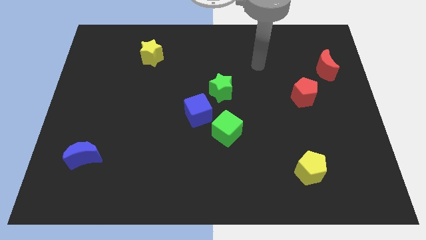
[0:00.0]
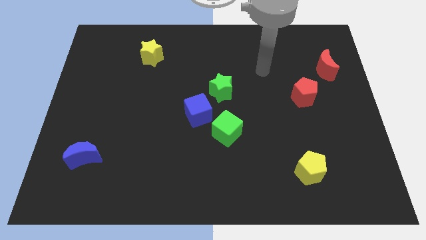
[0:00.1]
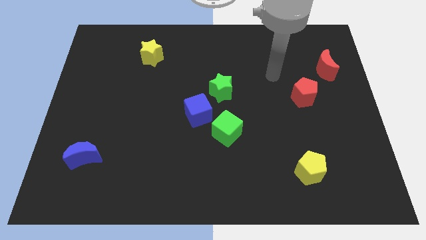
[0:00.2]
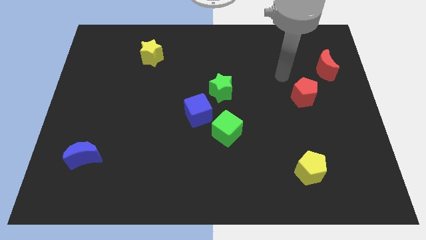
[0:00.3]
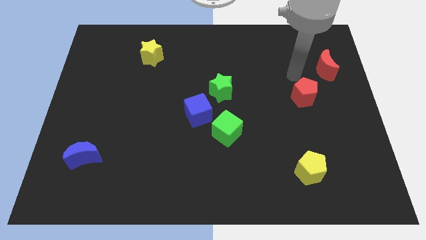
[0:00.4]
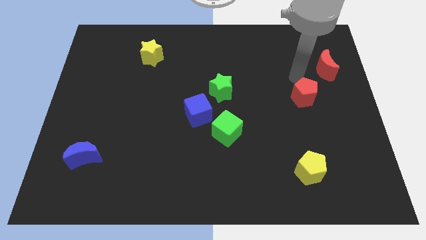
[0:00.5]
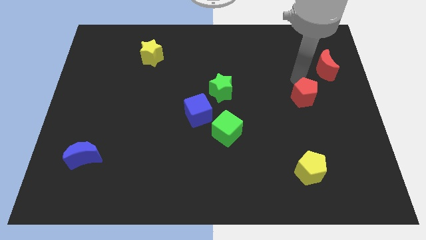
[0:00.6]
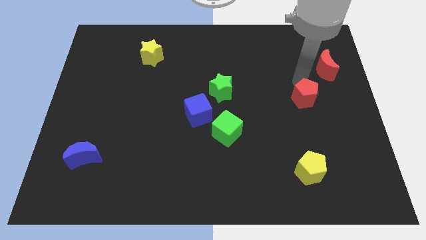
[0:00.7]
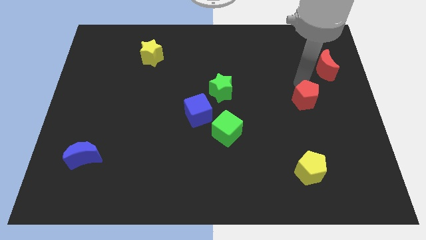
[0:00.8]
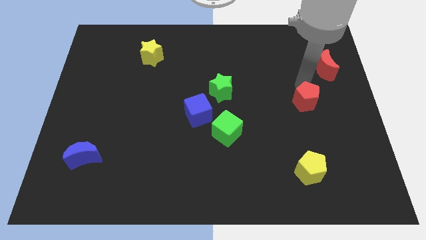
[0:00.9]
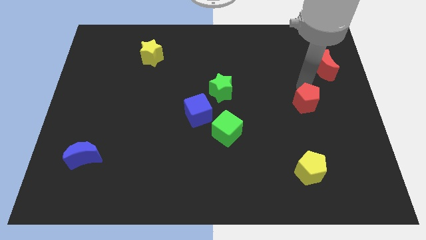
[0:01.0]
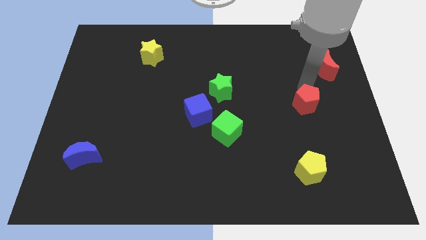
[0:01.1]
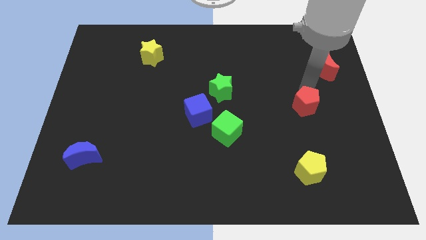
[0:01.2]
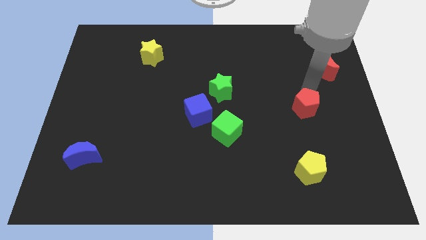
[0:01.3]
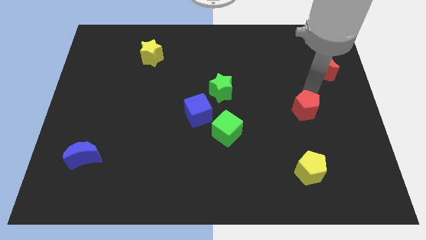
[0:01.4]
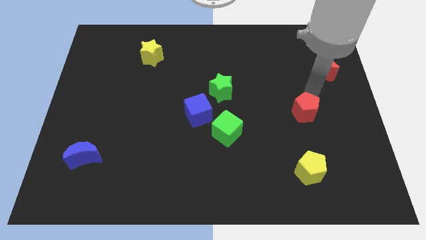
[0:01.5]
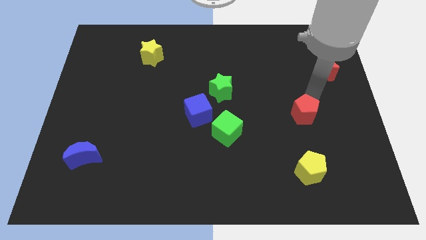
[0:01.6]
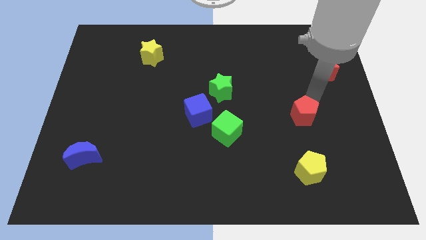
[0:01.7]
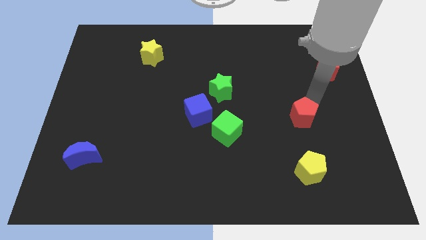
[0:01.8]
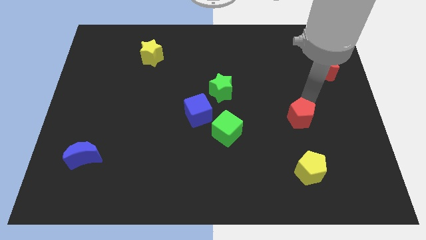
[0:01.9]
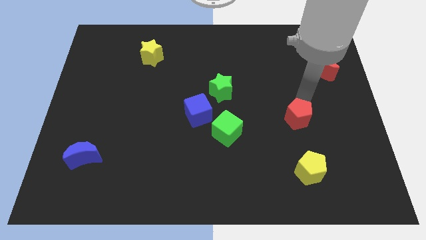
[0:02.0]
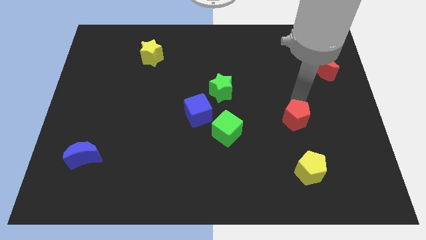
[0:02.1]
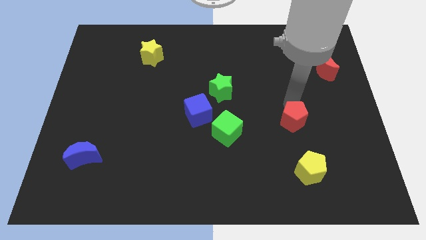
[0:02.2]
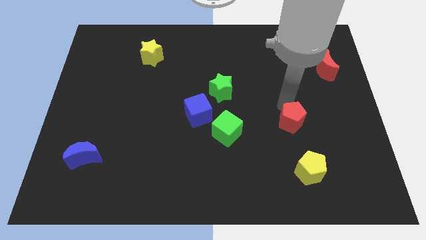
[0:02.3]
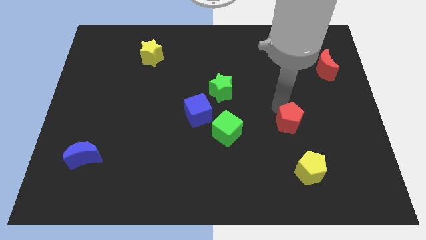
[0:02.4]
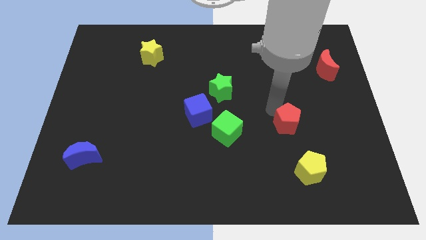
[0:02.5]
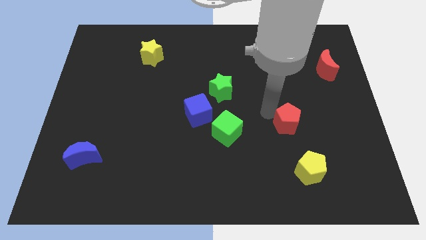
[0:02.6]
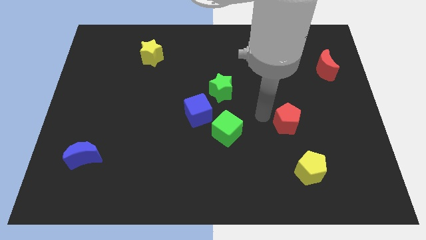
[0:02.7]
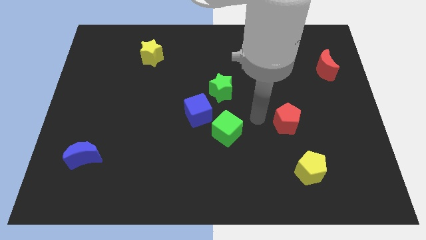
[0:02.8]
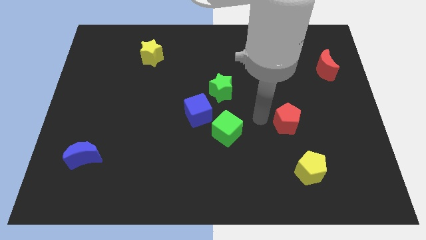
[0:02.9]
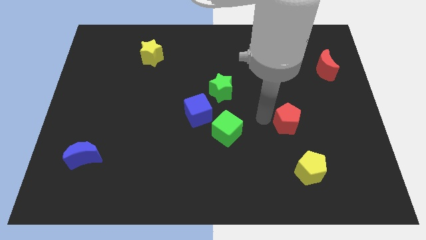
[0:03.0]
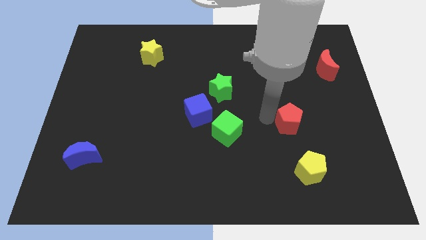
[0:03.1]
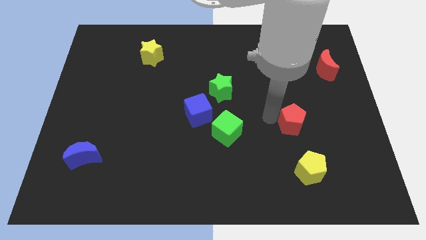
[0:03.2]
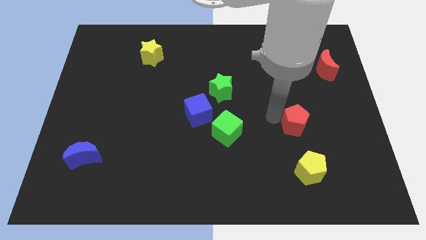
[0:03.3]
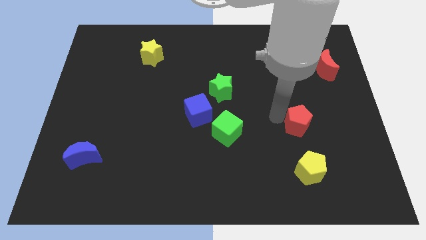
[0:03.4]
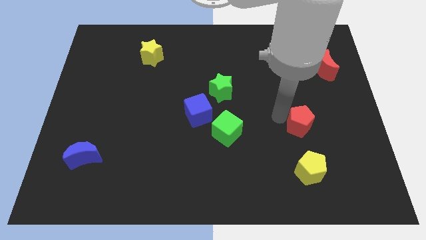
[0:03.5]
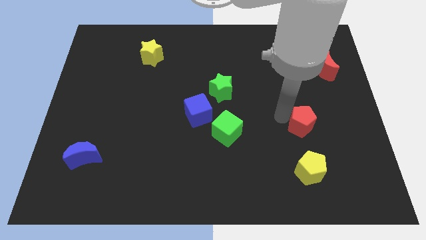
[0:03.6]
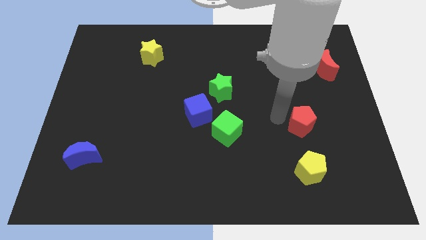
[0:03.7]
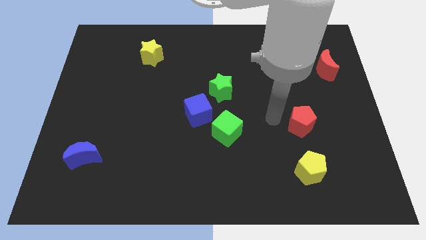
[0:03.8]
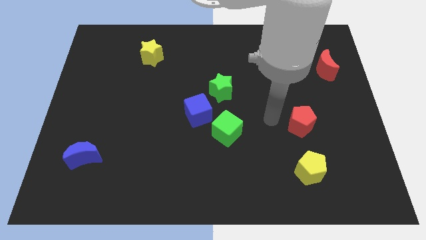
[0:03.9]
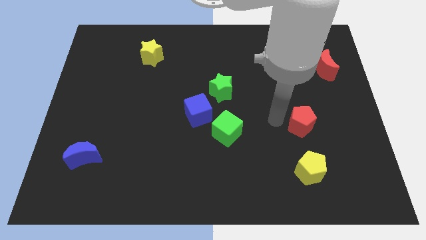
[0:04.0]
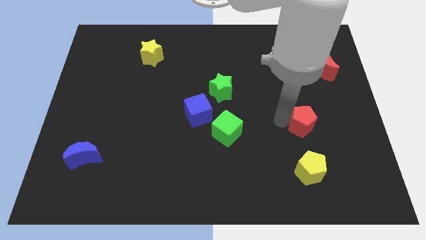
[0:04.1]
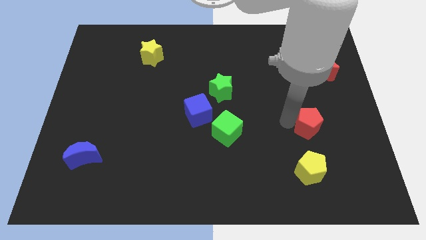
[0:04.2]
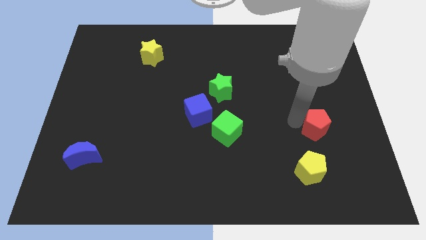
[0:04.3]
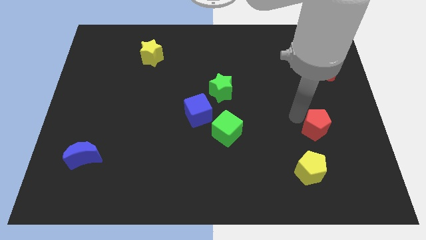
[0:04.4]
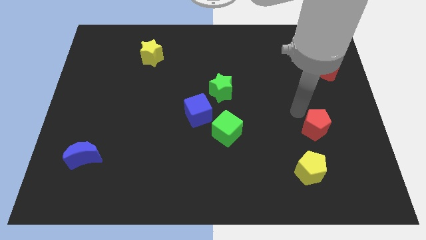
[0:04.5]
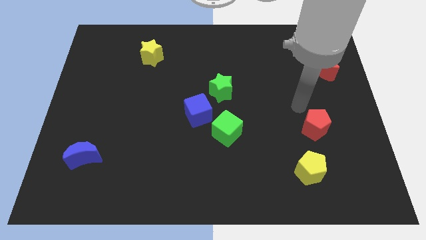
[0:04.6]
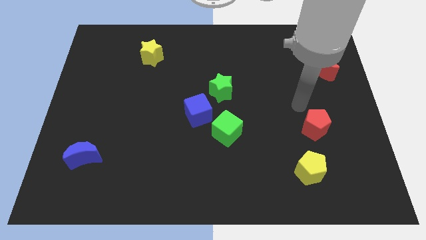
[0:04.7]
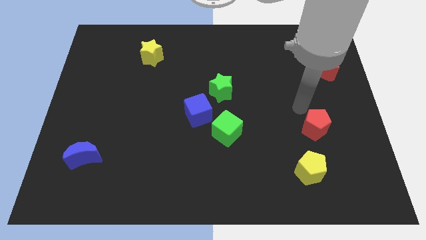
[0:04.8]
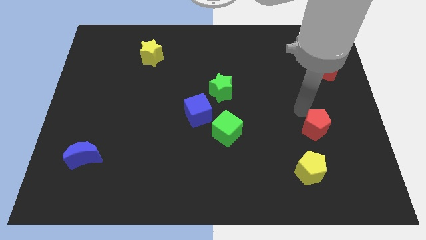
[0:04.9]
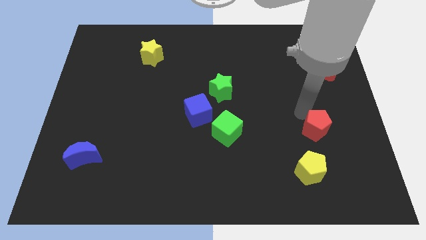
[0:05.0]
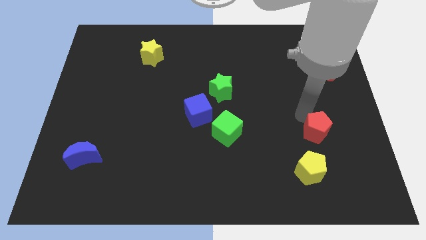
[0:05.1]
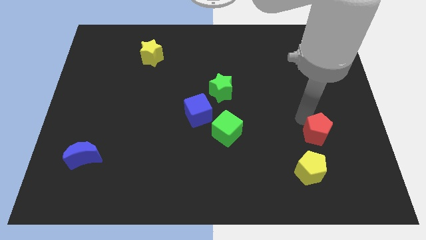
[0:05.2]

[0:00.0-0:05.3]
slide the red pentagon to the top right side of the yellow pentagon

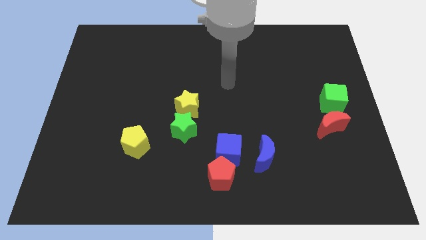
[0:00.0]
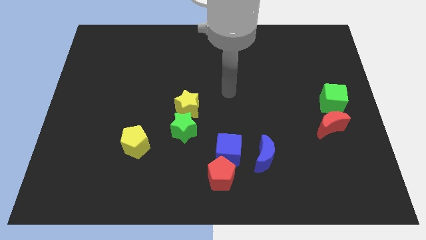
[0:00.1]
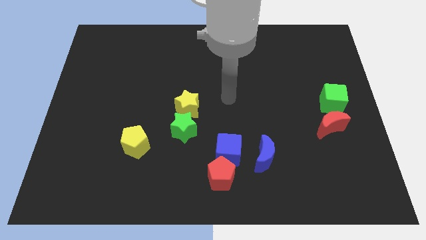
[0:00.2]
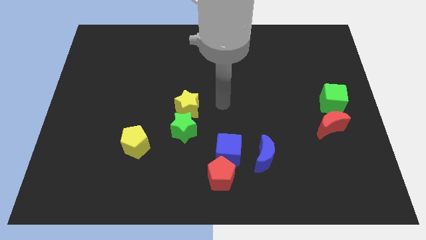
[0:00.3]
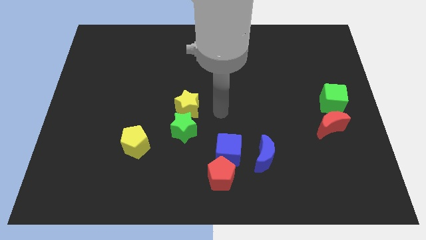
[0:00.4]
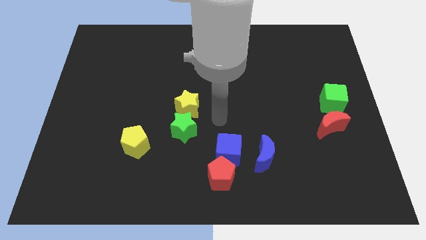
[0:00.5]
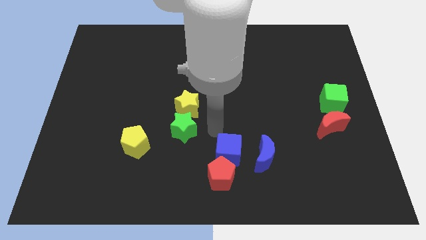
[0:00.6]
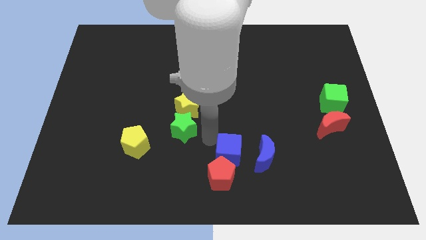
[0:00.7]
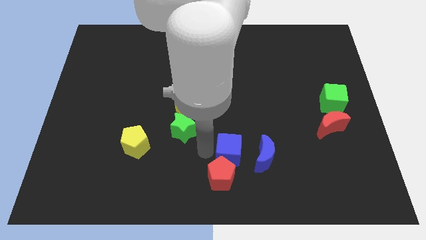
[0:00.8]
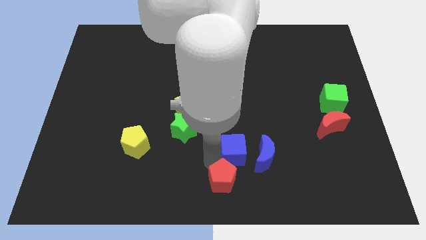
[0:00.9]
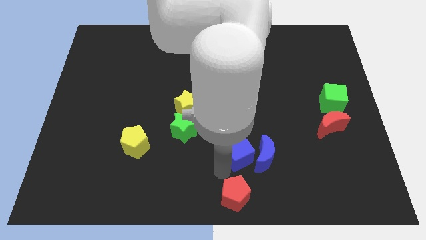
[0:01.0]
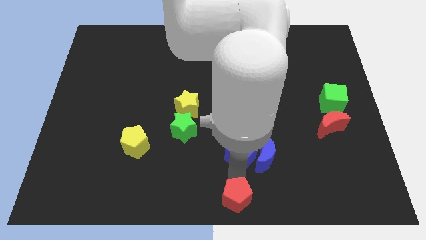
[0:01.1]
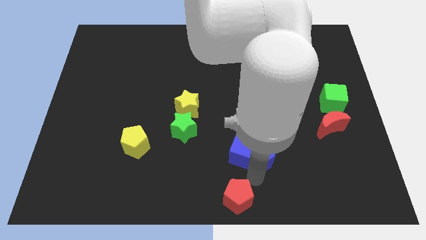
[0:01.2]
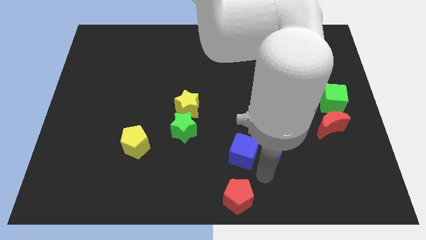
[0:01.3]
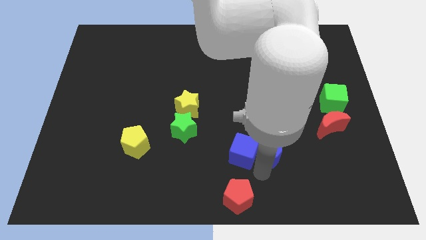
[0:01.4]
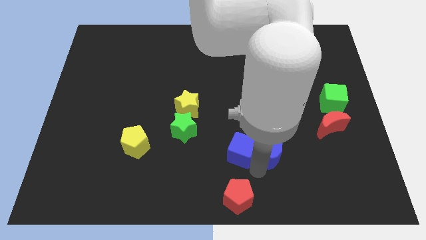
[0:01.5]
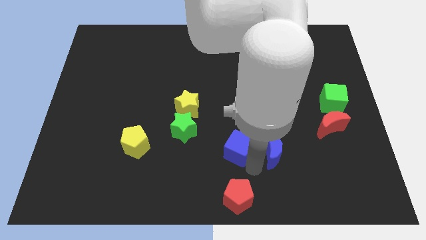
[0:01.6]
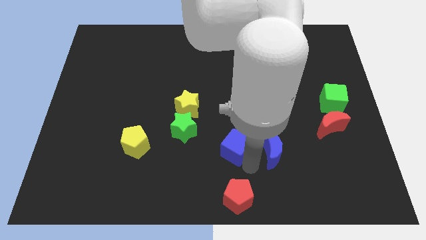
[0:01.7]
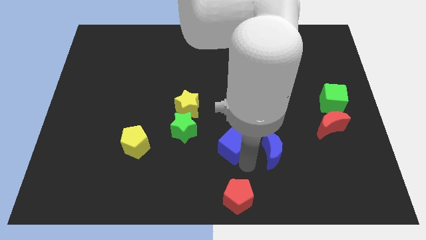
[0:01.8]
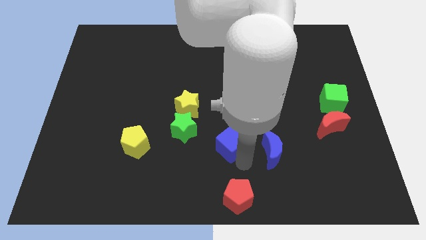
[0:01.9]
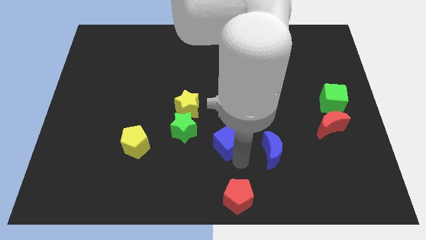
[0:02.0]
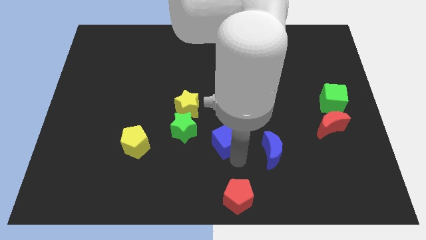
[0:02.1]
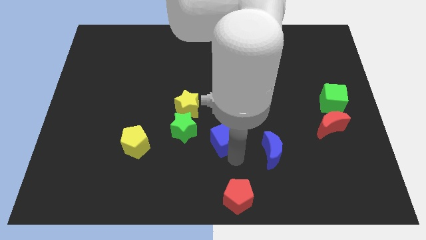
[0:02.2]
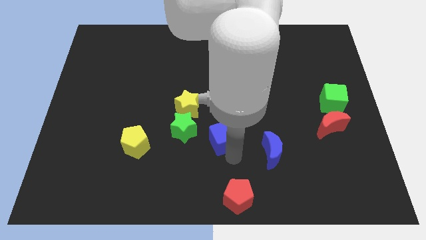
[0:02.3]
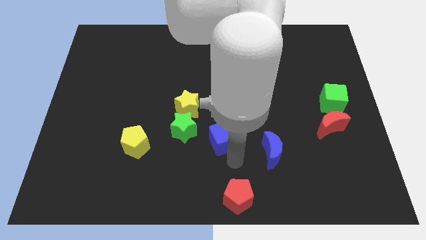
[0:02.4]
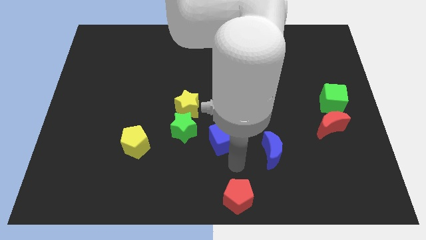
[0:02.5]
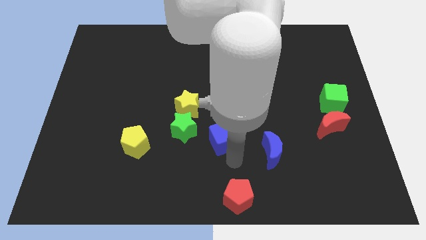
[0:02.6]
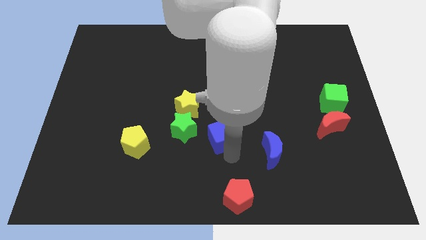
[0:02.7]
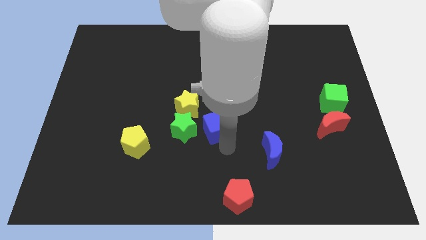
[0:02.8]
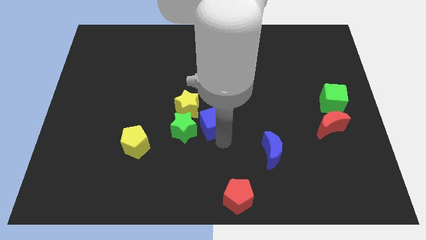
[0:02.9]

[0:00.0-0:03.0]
move the blue cube diagonally up and to the right of the green star
